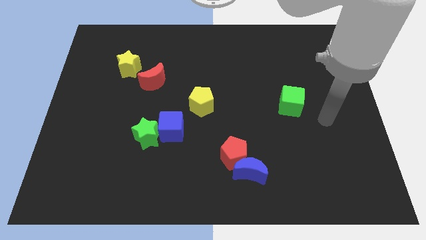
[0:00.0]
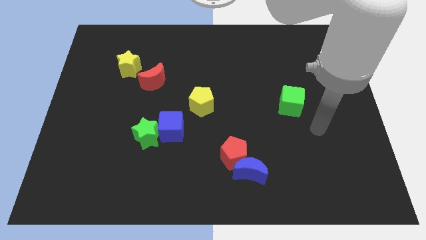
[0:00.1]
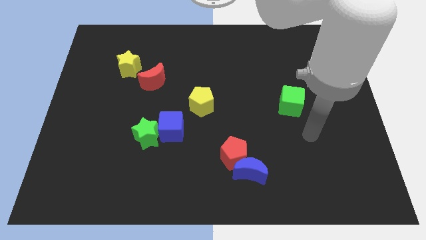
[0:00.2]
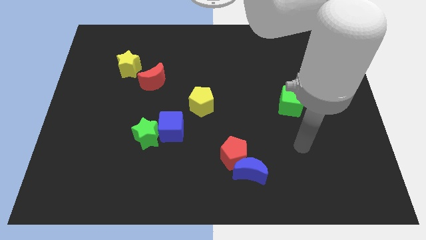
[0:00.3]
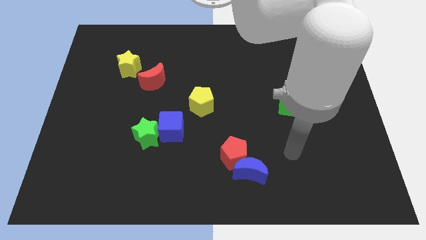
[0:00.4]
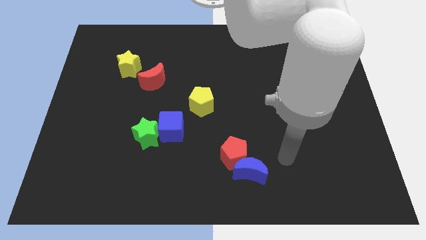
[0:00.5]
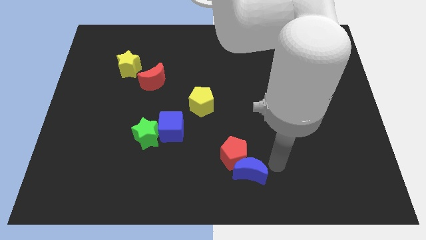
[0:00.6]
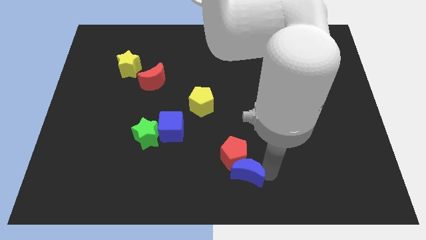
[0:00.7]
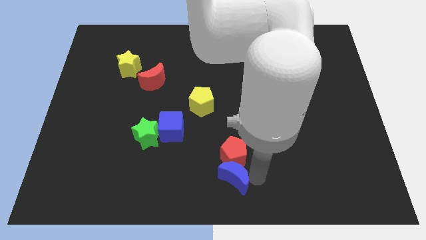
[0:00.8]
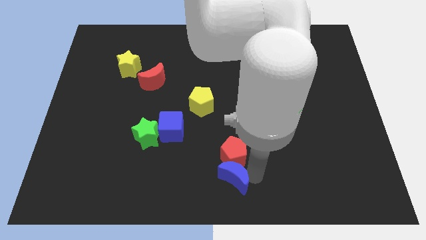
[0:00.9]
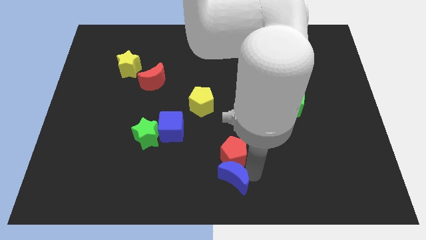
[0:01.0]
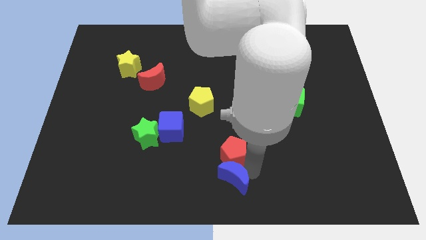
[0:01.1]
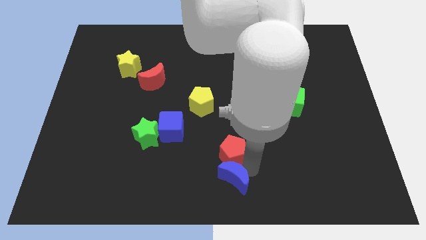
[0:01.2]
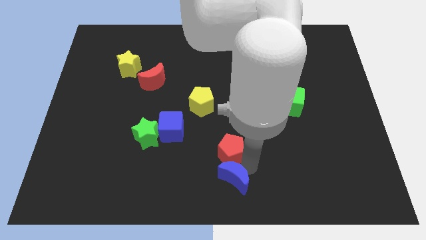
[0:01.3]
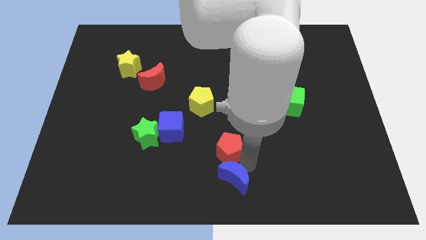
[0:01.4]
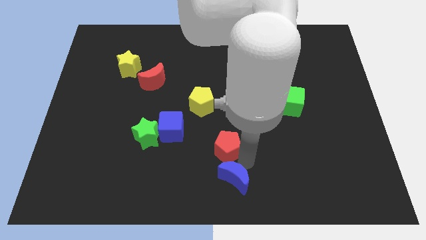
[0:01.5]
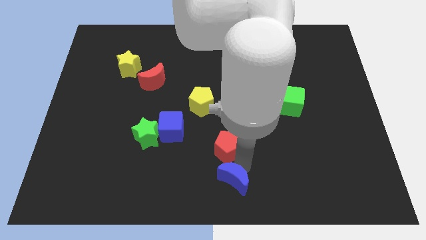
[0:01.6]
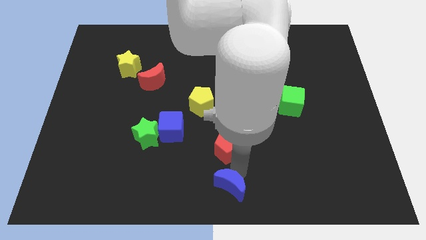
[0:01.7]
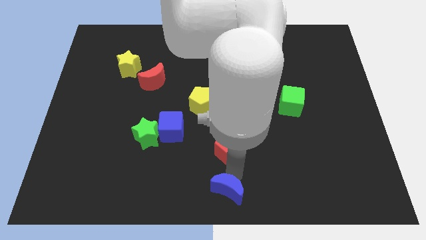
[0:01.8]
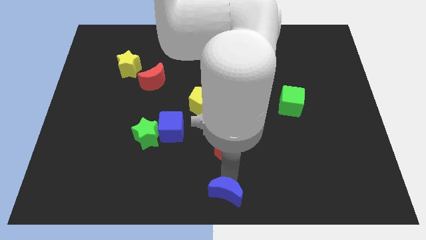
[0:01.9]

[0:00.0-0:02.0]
move the red pentagon away from the blue moon

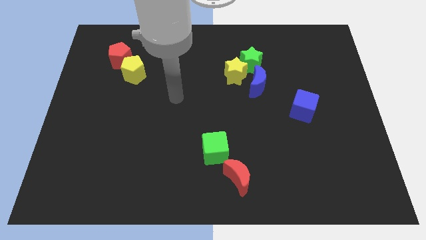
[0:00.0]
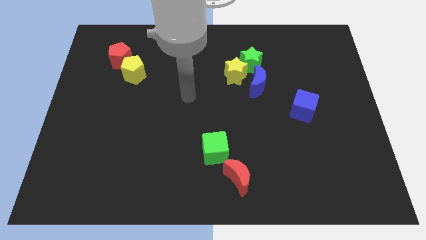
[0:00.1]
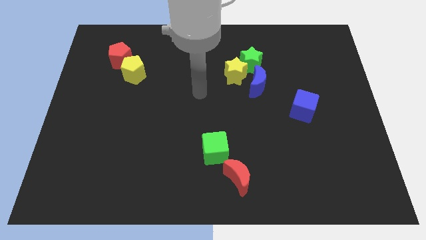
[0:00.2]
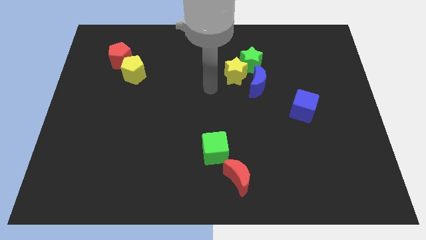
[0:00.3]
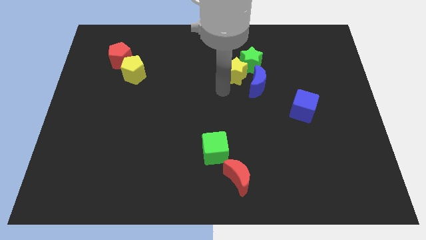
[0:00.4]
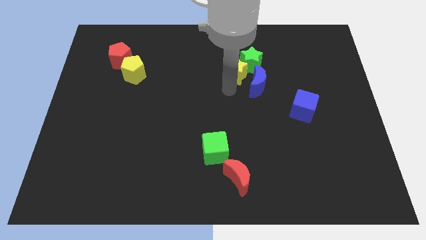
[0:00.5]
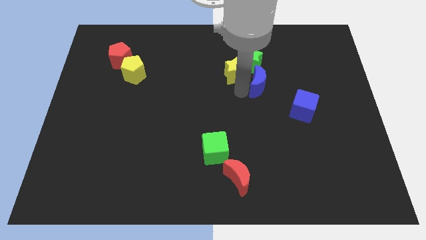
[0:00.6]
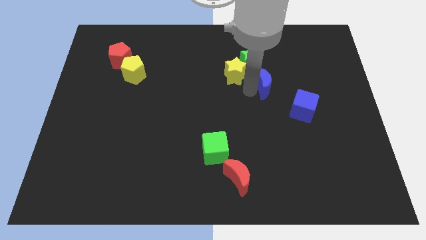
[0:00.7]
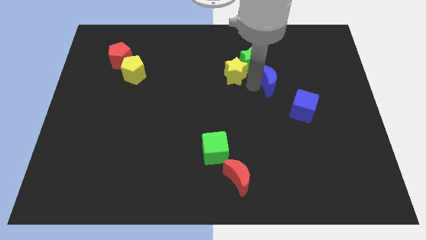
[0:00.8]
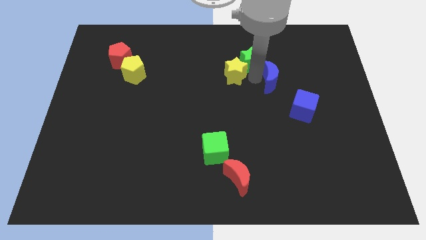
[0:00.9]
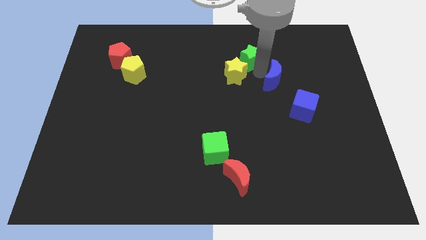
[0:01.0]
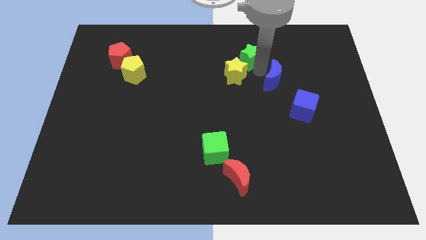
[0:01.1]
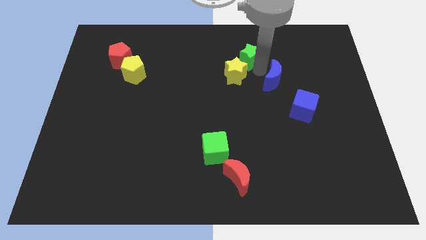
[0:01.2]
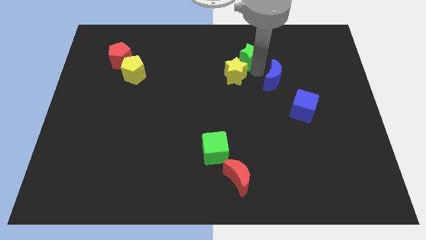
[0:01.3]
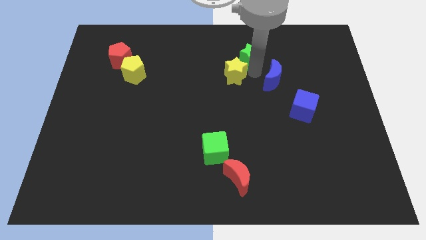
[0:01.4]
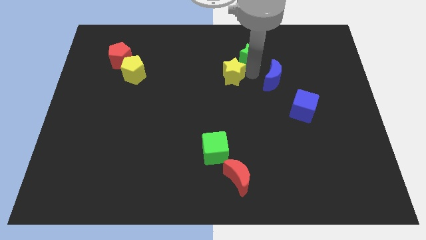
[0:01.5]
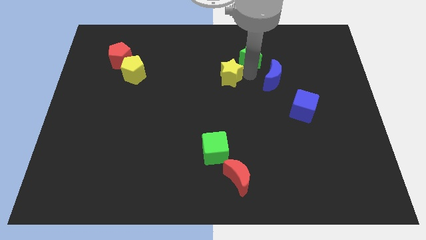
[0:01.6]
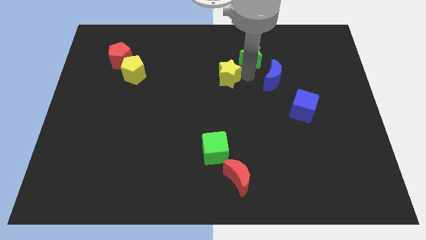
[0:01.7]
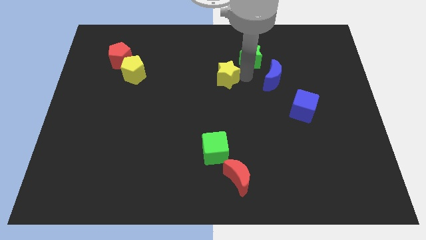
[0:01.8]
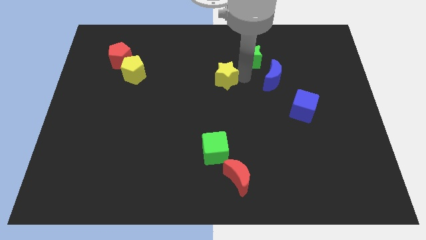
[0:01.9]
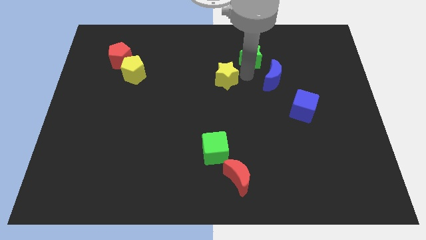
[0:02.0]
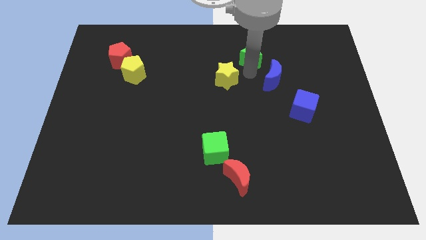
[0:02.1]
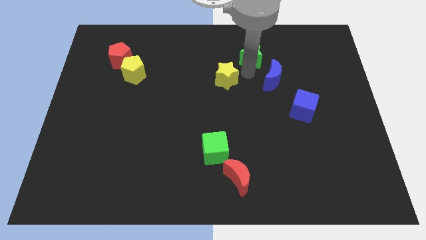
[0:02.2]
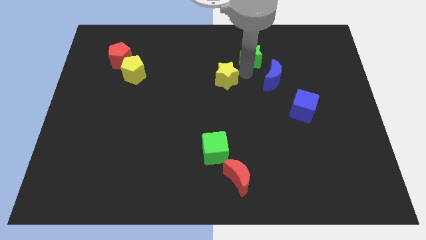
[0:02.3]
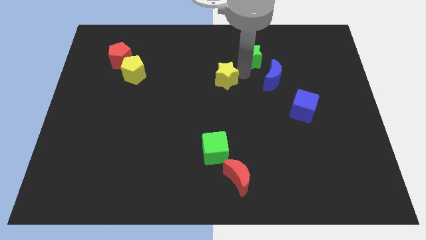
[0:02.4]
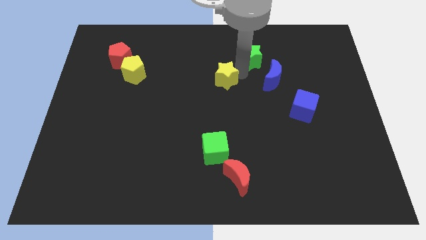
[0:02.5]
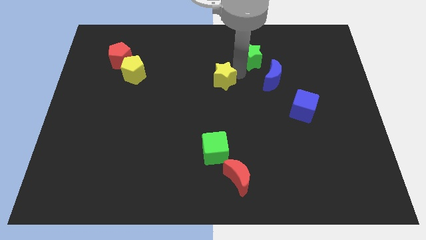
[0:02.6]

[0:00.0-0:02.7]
move the yellow star away from the green star and blue moon

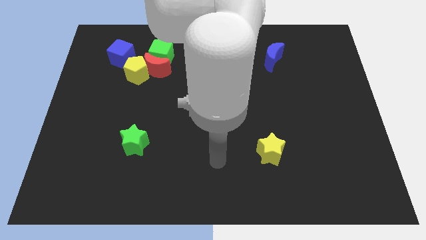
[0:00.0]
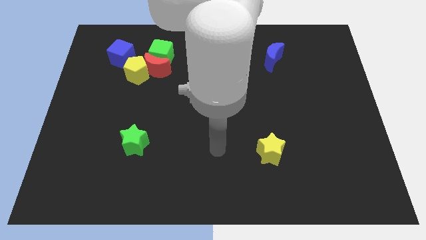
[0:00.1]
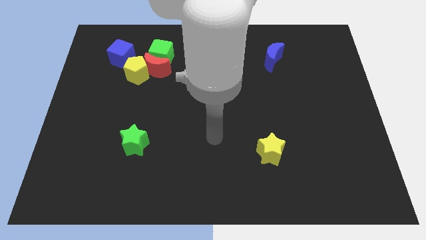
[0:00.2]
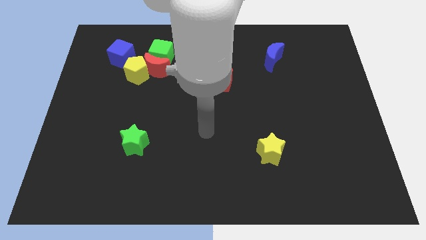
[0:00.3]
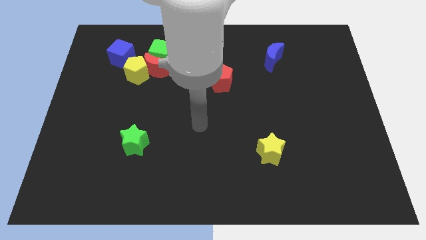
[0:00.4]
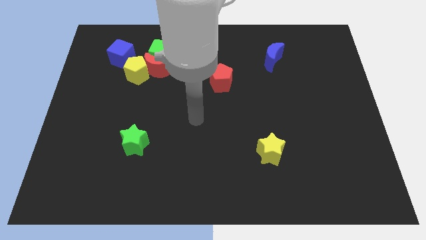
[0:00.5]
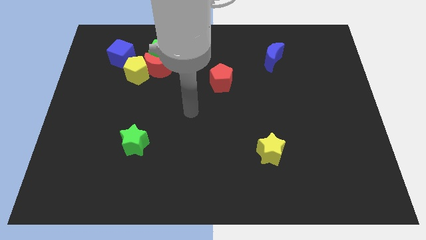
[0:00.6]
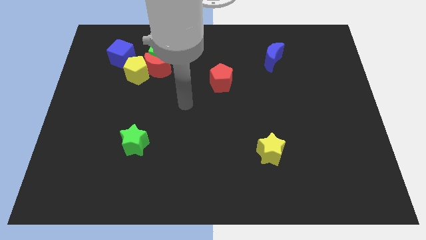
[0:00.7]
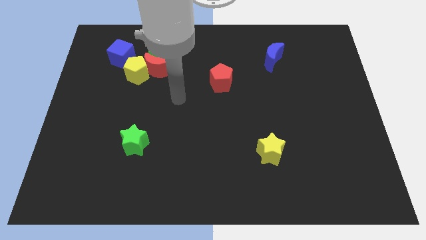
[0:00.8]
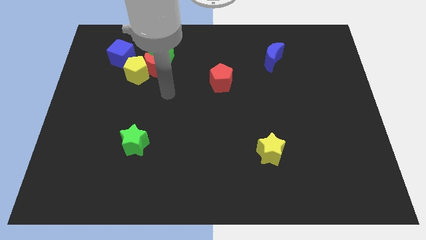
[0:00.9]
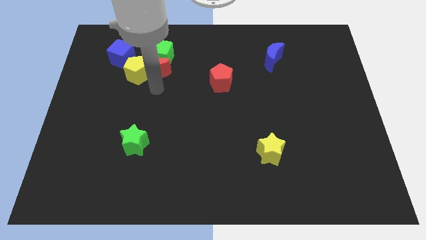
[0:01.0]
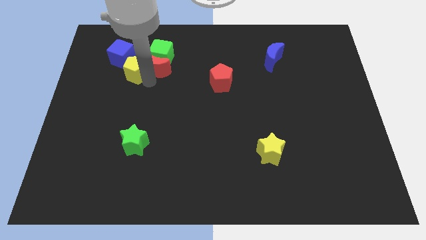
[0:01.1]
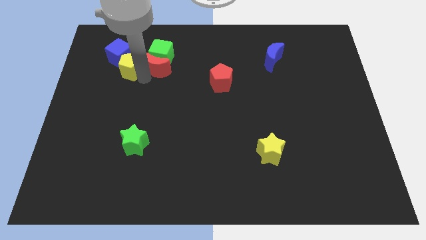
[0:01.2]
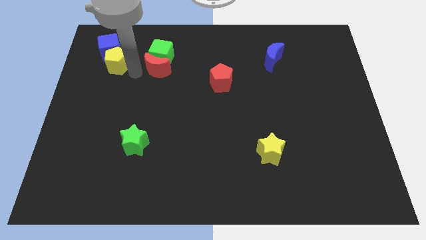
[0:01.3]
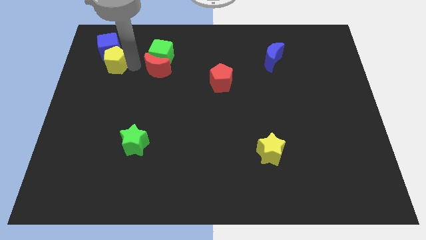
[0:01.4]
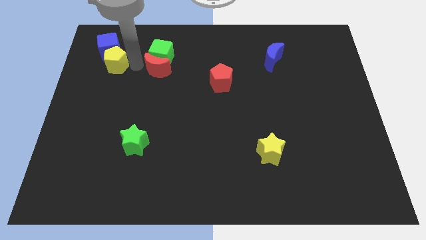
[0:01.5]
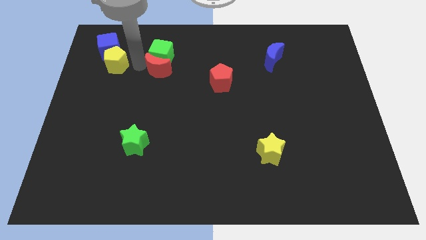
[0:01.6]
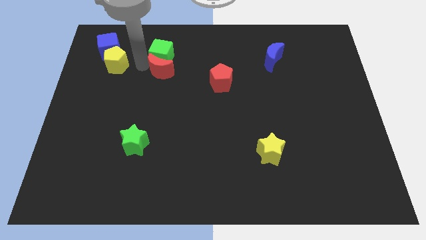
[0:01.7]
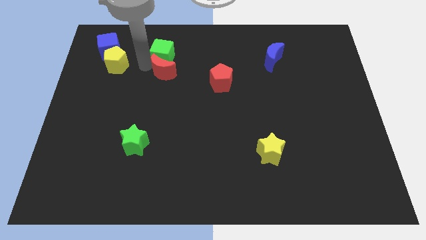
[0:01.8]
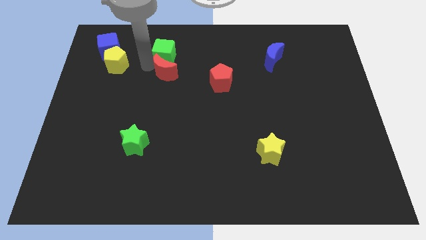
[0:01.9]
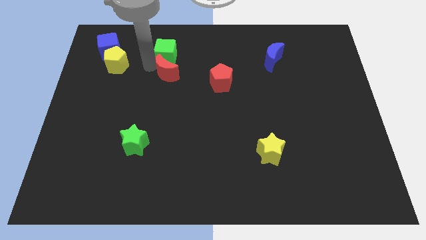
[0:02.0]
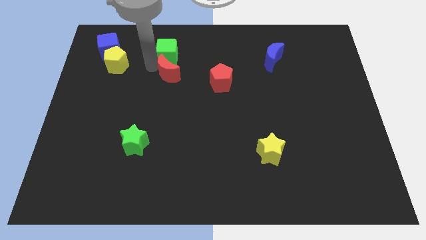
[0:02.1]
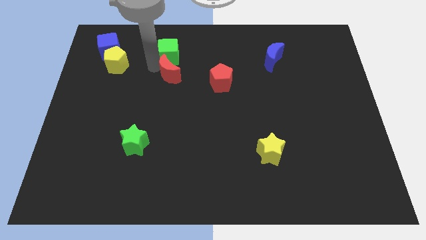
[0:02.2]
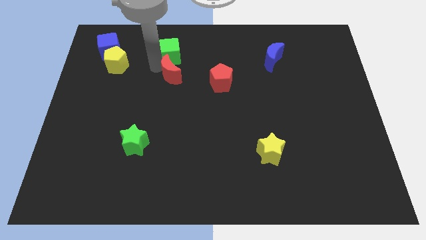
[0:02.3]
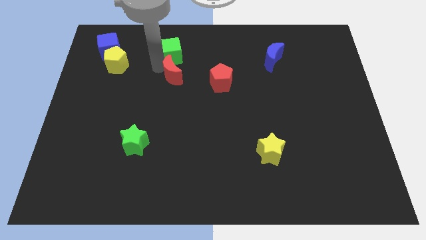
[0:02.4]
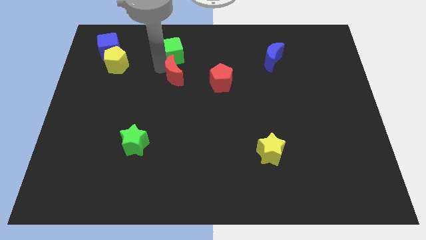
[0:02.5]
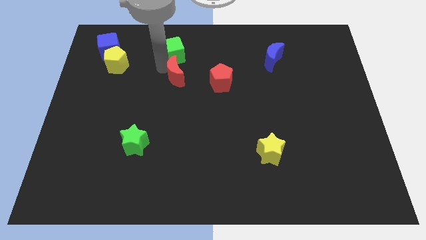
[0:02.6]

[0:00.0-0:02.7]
move the red moon away from the green cube and yellow pentagon

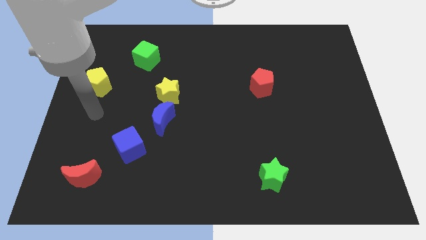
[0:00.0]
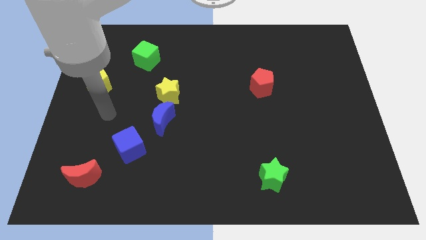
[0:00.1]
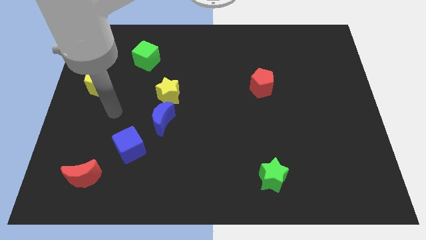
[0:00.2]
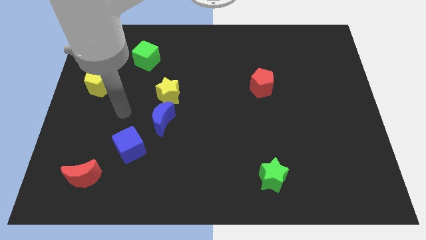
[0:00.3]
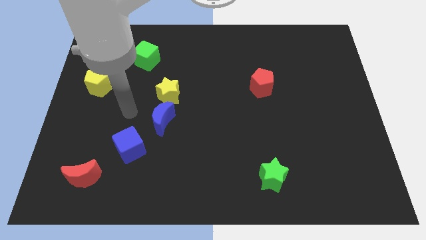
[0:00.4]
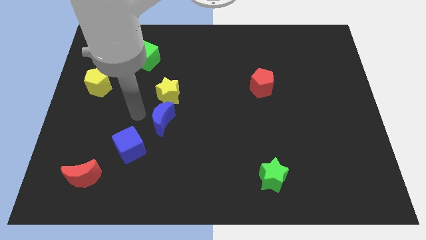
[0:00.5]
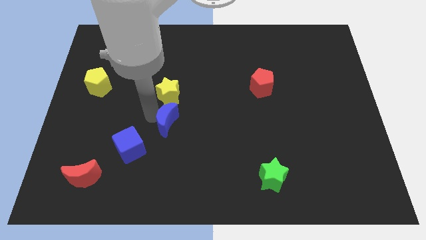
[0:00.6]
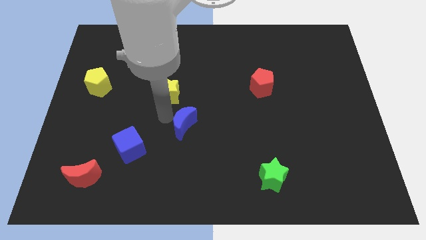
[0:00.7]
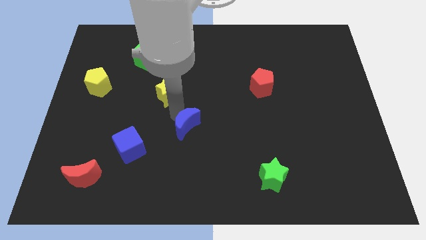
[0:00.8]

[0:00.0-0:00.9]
move the yellow star away from the blue moon

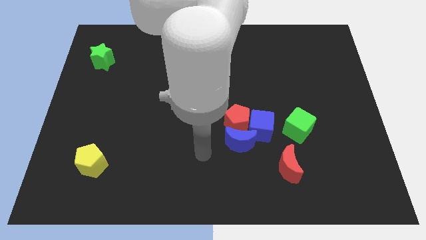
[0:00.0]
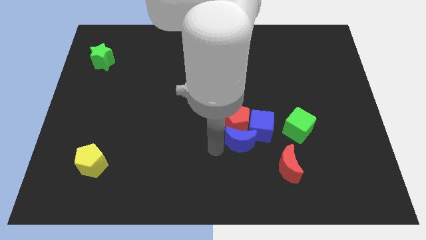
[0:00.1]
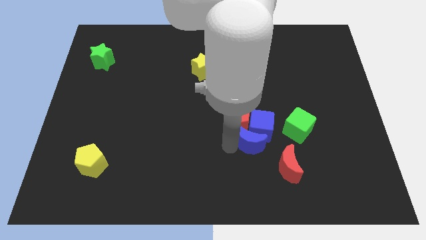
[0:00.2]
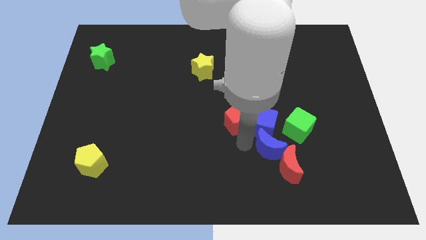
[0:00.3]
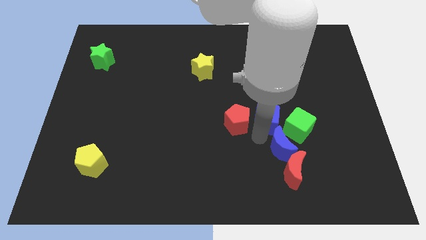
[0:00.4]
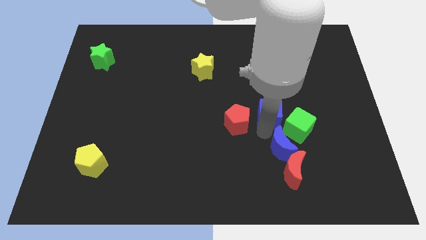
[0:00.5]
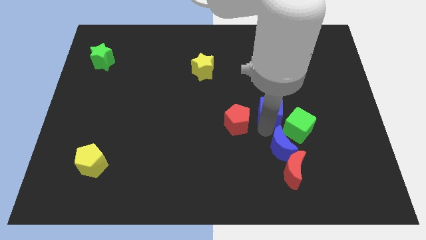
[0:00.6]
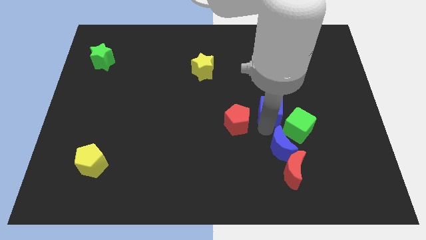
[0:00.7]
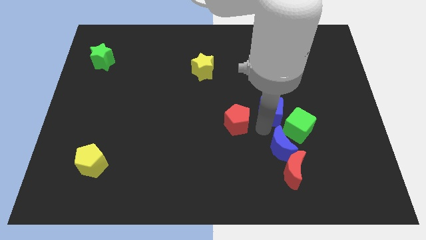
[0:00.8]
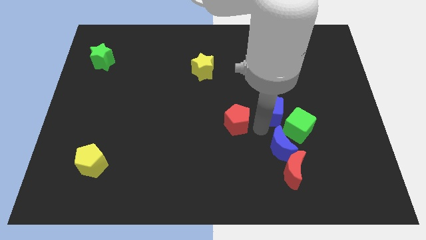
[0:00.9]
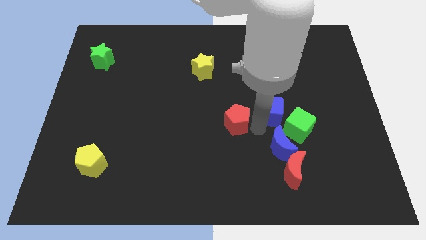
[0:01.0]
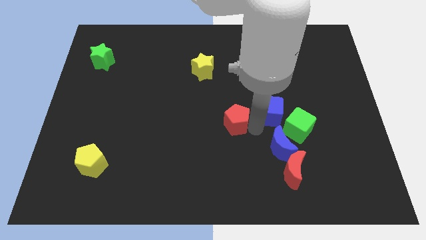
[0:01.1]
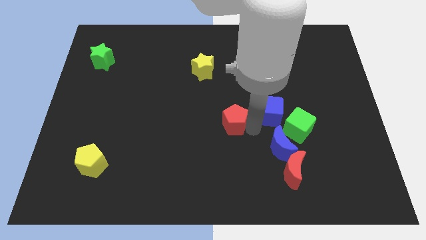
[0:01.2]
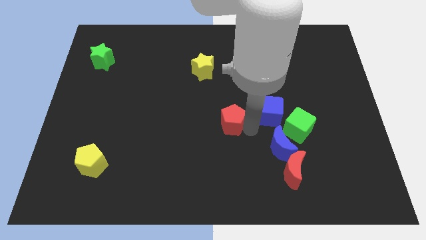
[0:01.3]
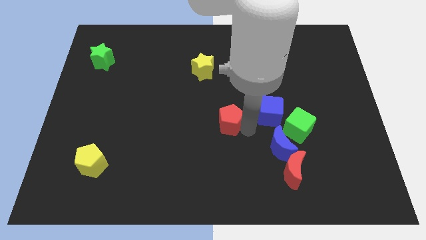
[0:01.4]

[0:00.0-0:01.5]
pull the red pentagon apart from the blue moon and blue cube
